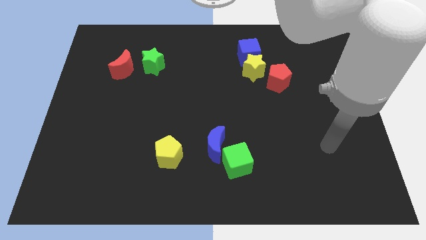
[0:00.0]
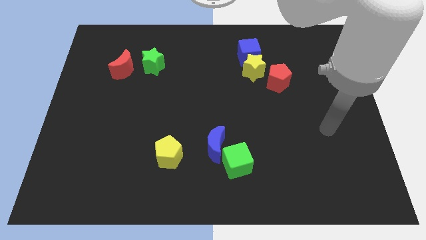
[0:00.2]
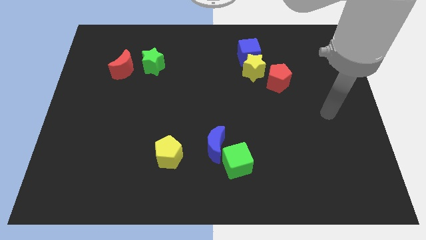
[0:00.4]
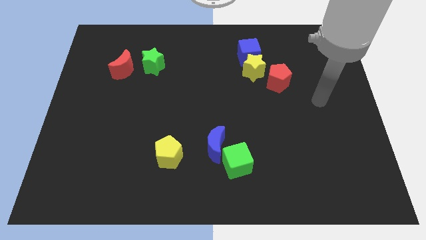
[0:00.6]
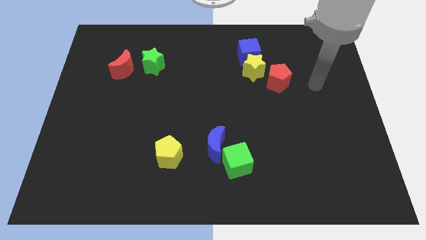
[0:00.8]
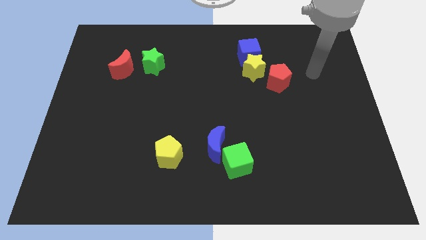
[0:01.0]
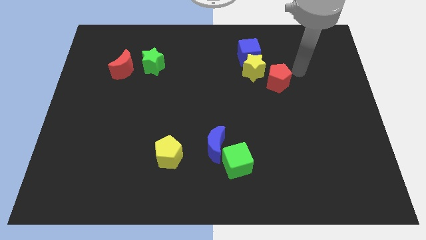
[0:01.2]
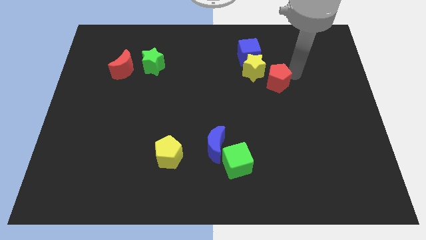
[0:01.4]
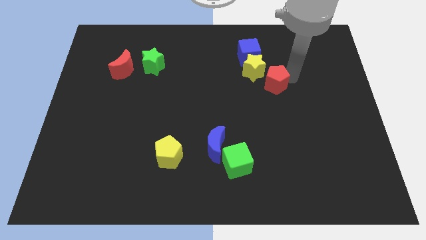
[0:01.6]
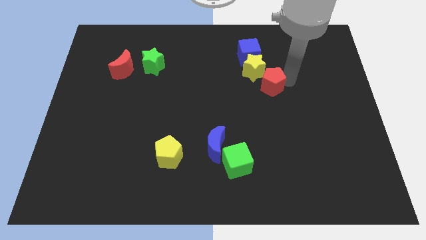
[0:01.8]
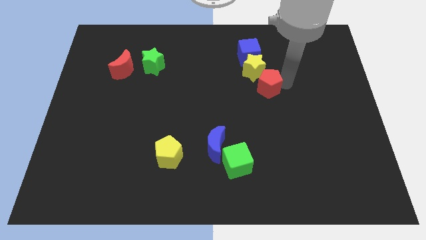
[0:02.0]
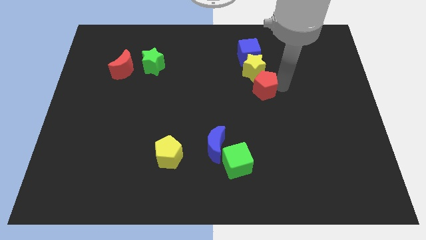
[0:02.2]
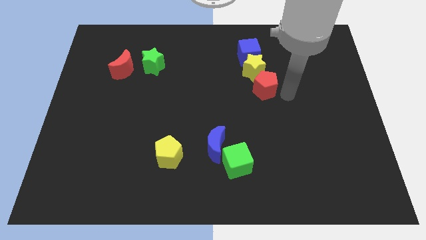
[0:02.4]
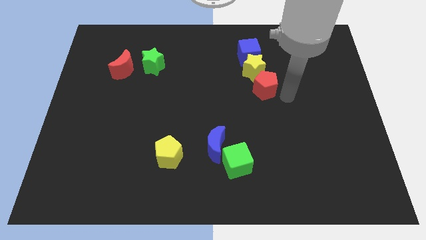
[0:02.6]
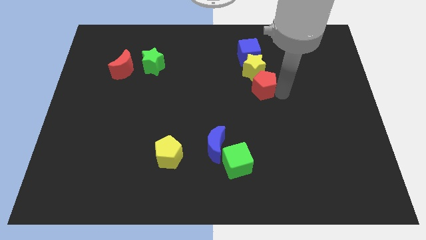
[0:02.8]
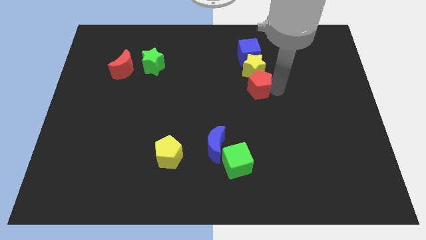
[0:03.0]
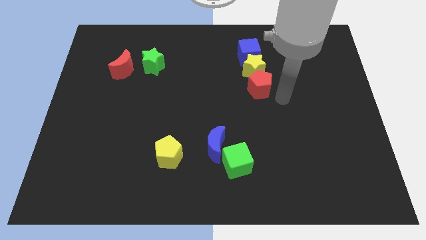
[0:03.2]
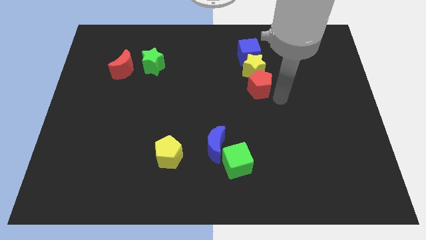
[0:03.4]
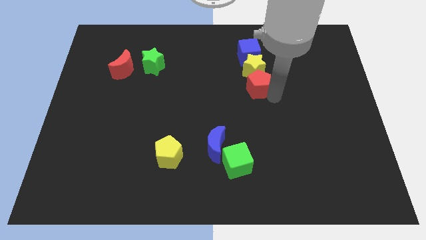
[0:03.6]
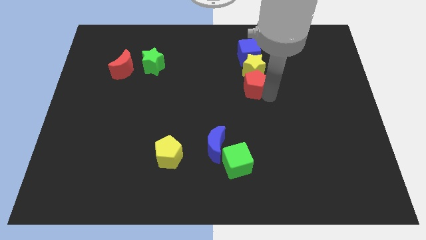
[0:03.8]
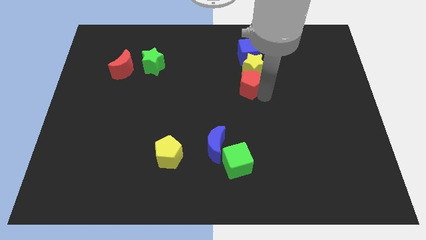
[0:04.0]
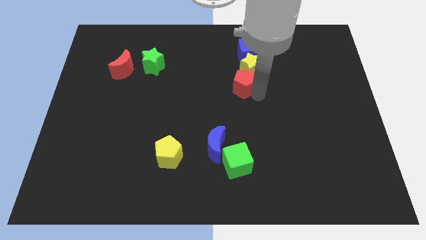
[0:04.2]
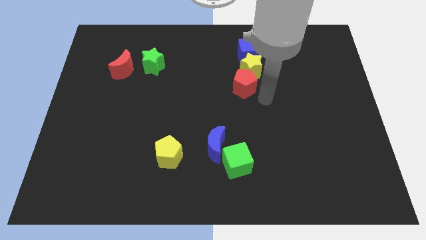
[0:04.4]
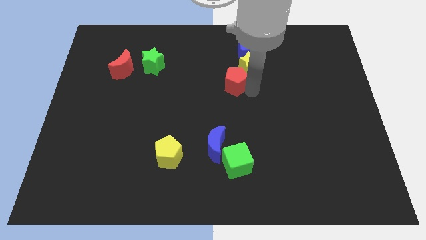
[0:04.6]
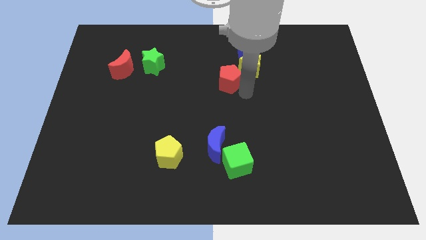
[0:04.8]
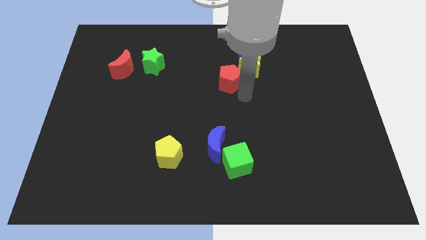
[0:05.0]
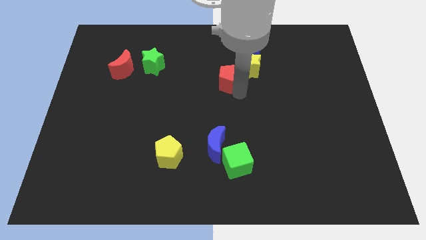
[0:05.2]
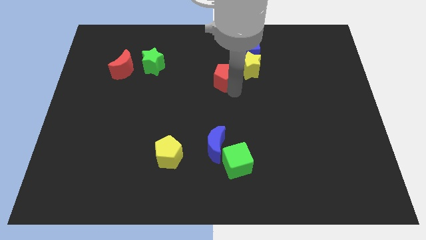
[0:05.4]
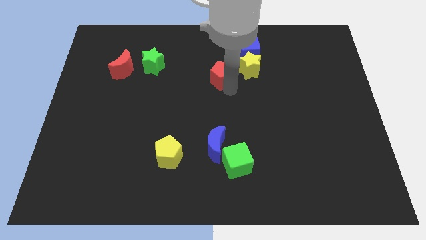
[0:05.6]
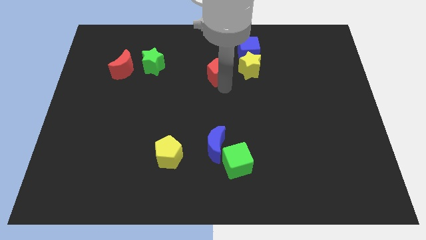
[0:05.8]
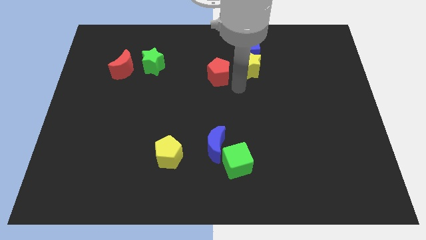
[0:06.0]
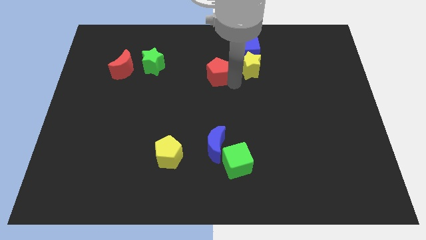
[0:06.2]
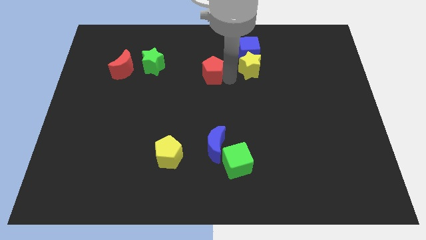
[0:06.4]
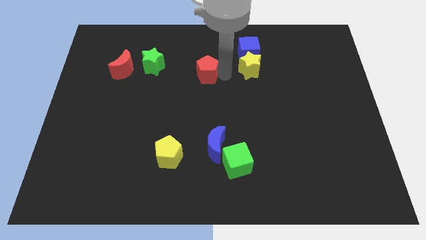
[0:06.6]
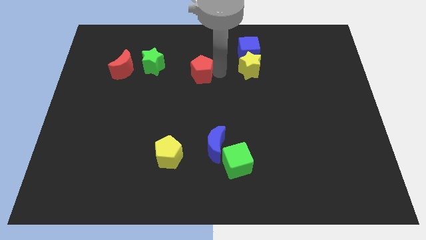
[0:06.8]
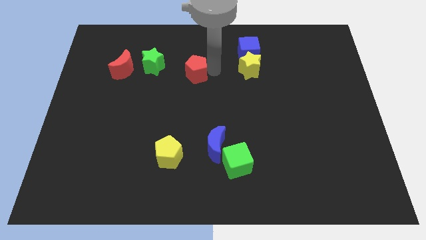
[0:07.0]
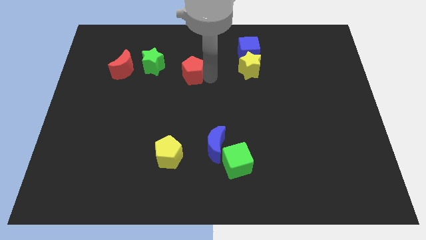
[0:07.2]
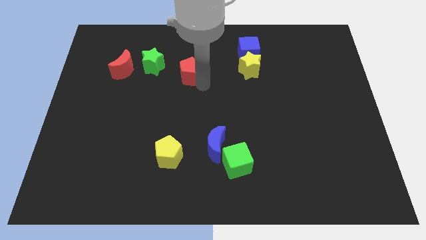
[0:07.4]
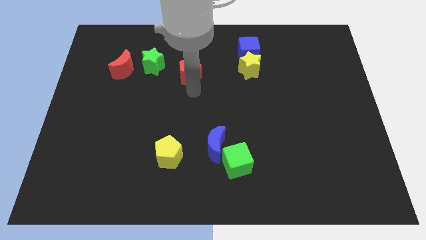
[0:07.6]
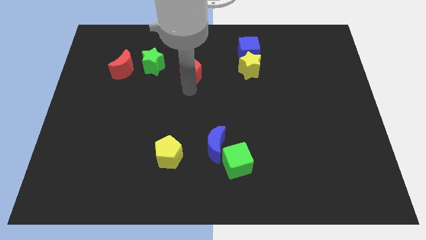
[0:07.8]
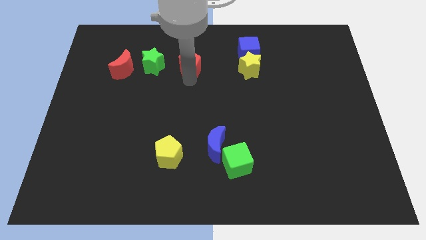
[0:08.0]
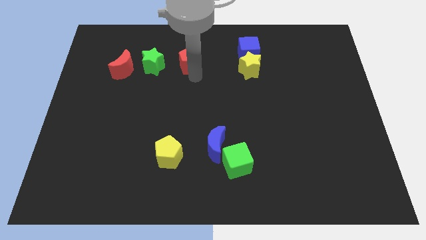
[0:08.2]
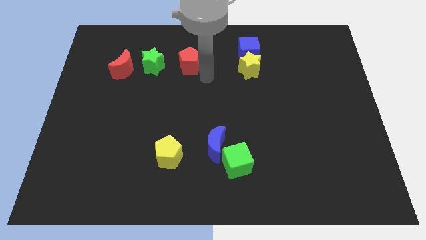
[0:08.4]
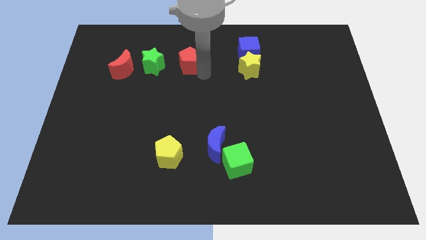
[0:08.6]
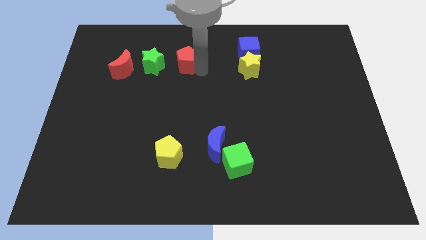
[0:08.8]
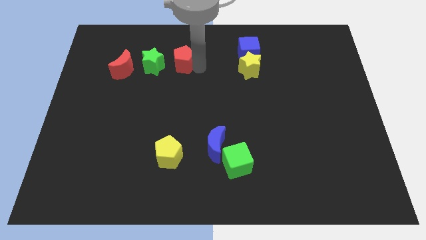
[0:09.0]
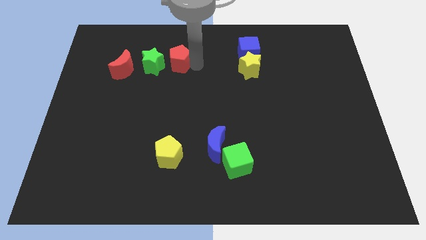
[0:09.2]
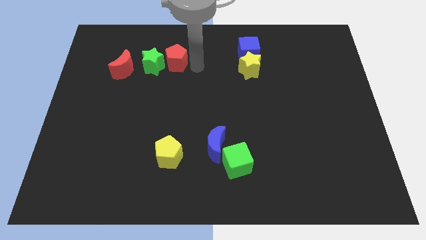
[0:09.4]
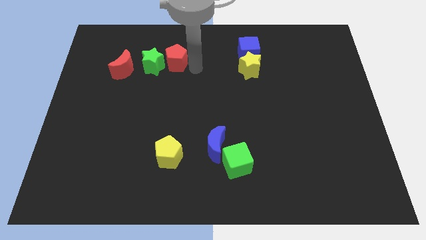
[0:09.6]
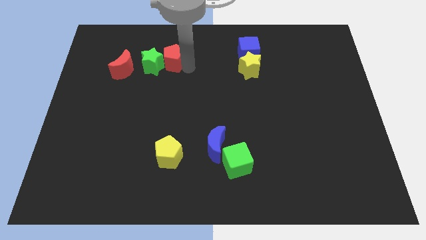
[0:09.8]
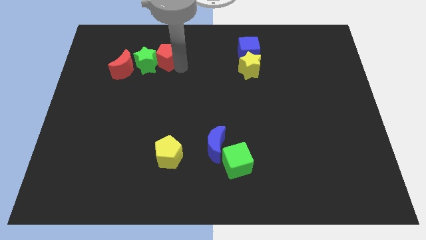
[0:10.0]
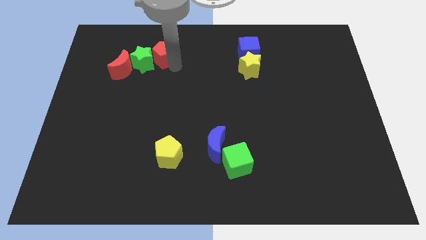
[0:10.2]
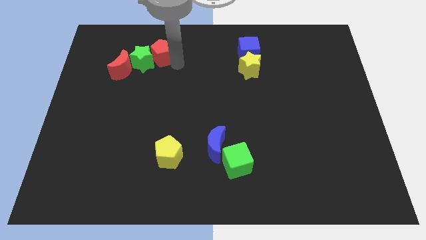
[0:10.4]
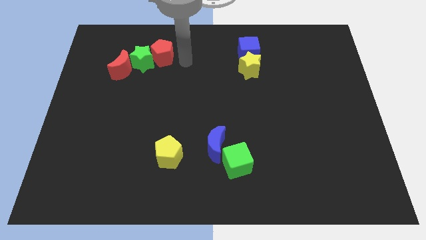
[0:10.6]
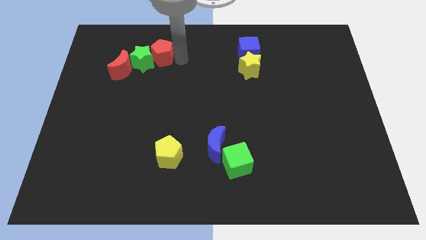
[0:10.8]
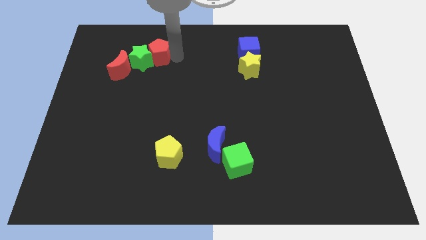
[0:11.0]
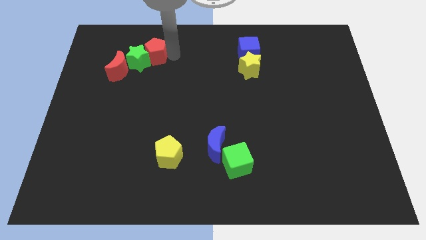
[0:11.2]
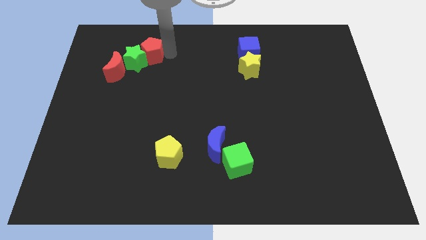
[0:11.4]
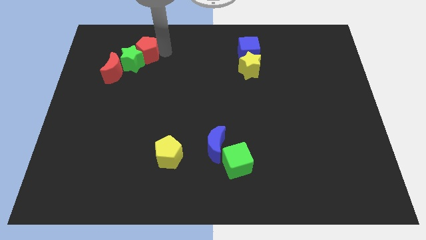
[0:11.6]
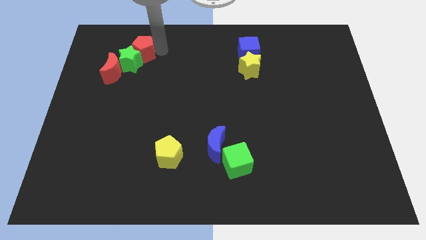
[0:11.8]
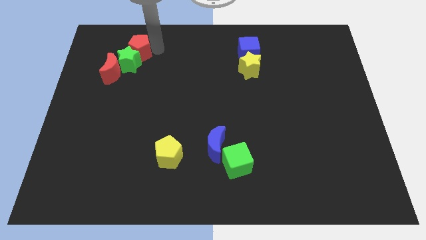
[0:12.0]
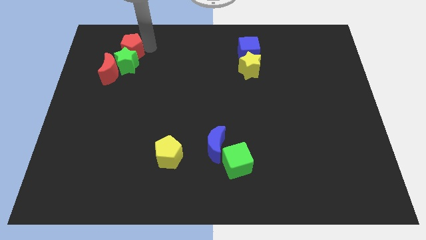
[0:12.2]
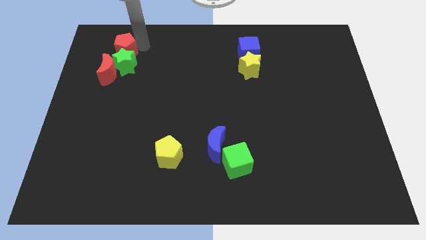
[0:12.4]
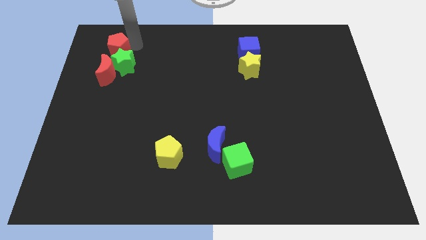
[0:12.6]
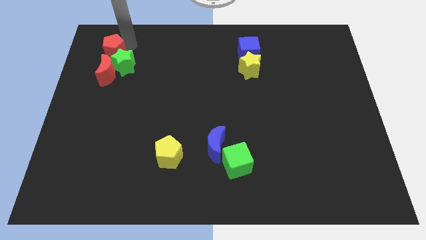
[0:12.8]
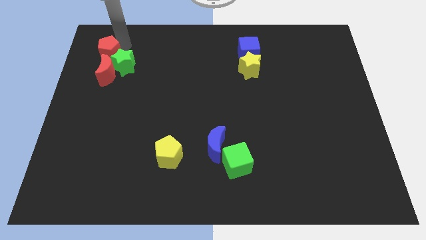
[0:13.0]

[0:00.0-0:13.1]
move the red pentagon to the top left of the red moon

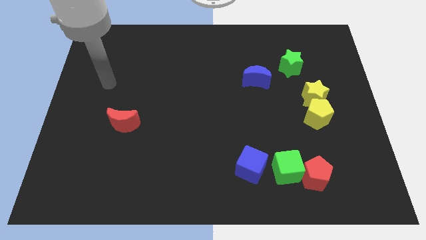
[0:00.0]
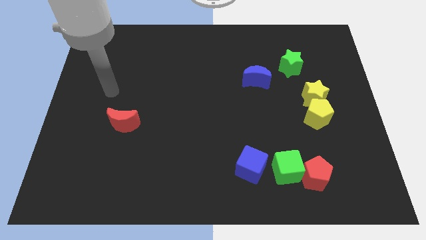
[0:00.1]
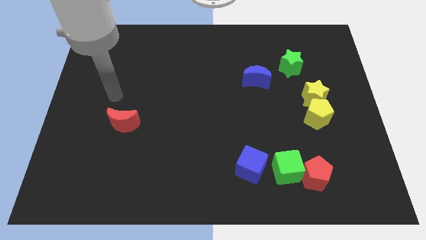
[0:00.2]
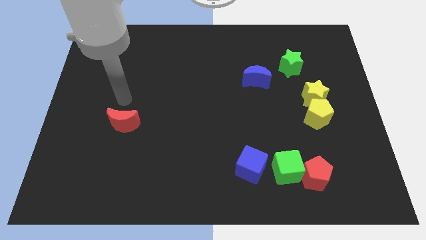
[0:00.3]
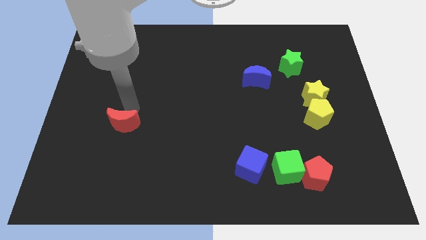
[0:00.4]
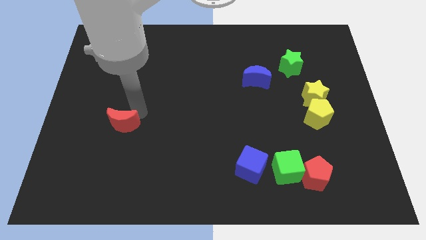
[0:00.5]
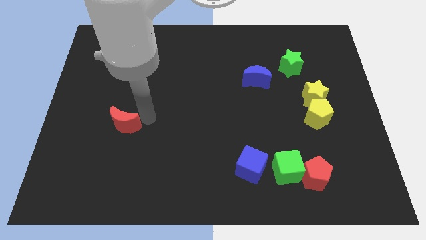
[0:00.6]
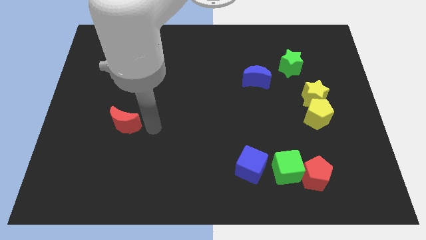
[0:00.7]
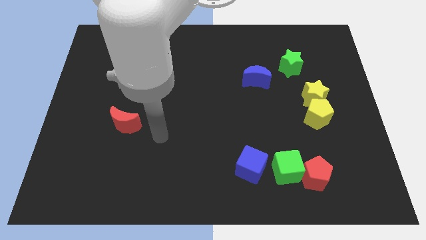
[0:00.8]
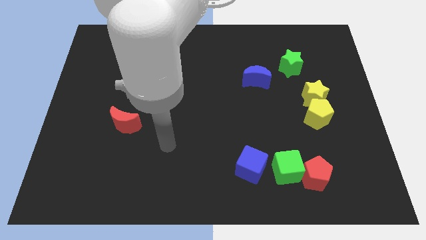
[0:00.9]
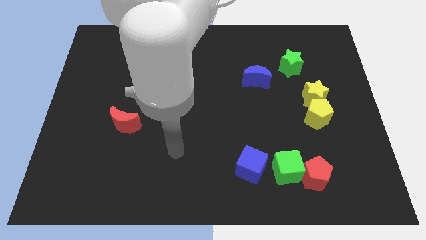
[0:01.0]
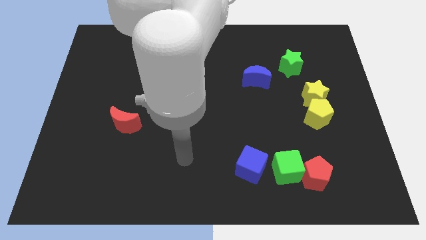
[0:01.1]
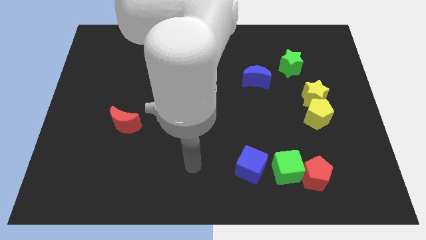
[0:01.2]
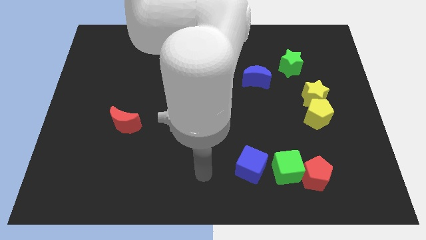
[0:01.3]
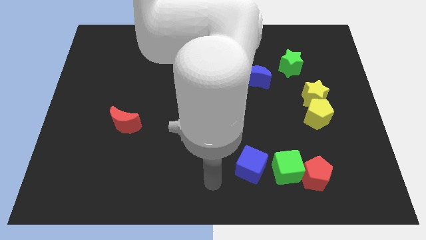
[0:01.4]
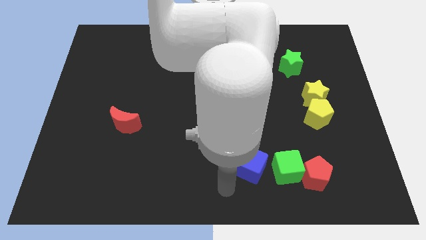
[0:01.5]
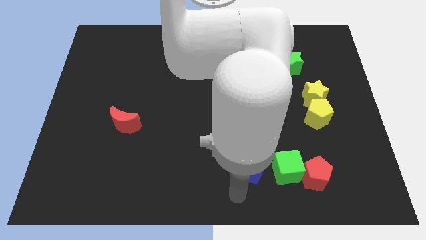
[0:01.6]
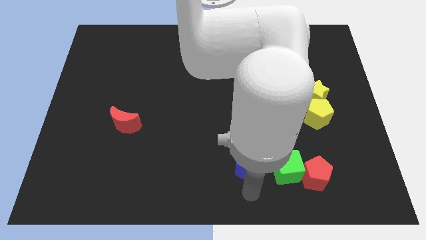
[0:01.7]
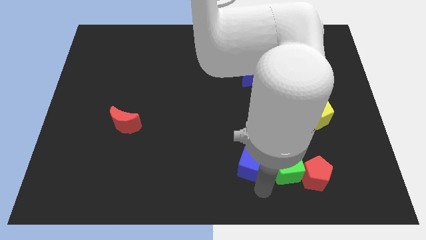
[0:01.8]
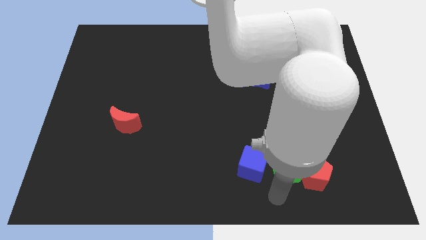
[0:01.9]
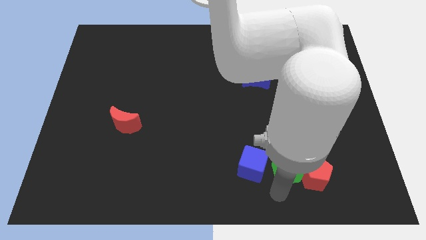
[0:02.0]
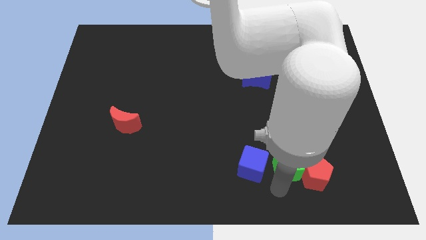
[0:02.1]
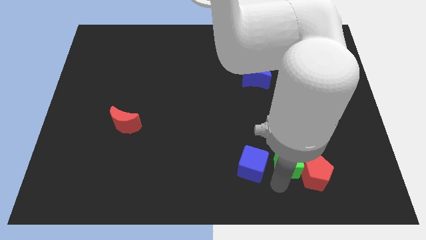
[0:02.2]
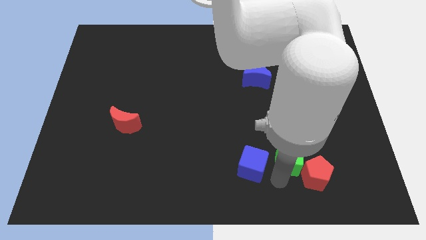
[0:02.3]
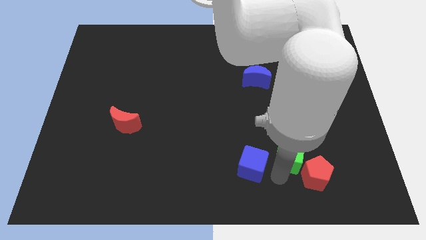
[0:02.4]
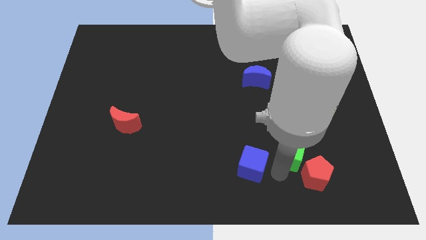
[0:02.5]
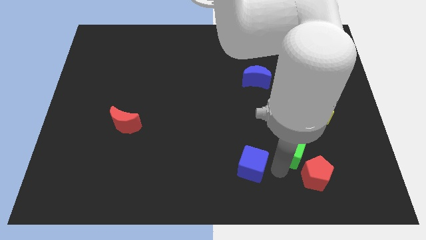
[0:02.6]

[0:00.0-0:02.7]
put the green cube diagonally down and to the left of the yellow pentagon
